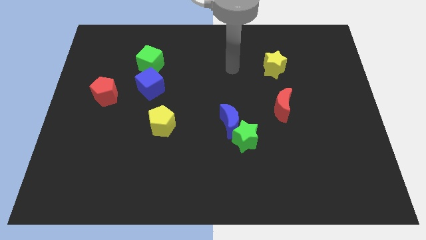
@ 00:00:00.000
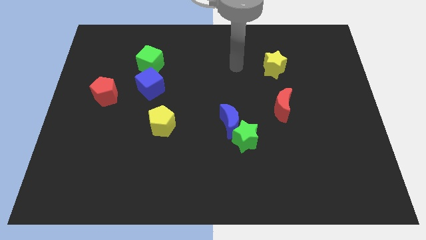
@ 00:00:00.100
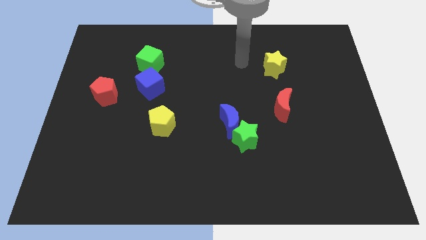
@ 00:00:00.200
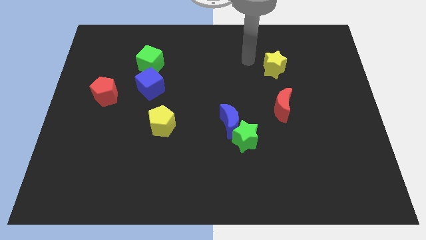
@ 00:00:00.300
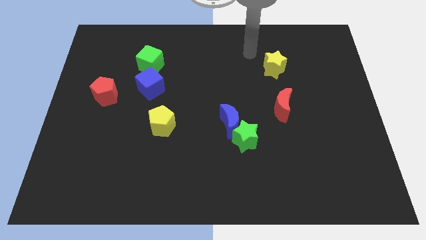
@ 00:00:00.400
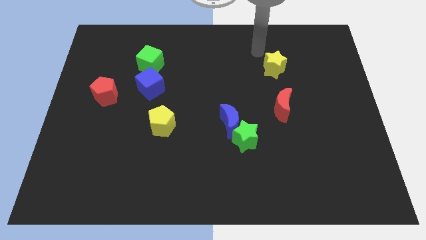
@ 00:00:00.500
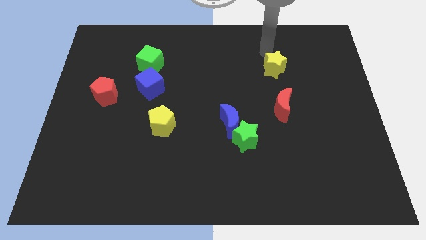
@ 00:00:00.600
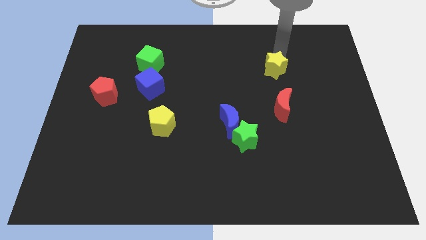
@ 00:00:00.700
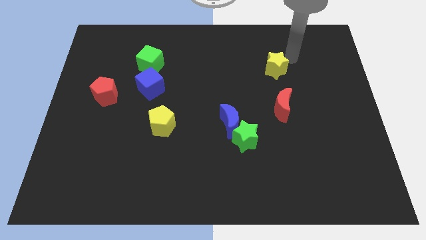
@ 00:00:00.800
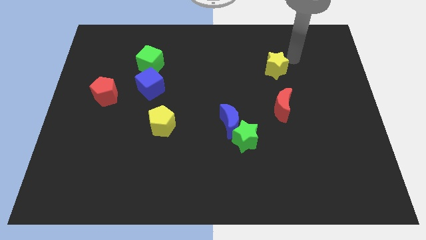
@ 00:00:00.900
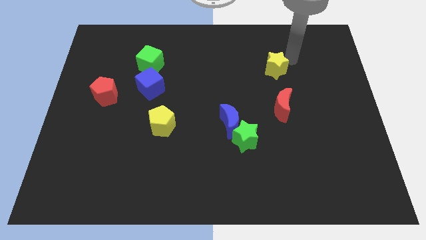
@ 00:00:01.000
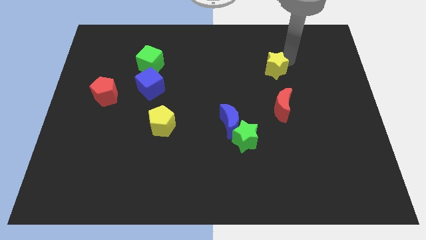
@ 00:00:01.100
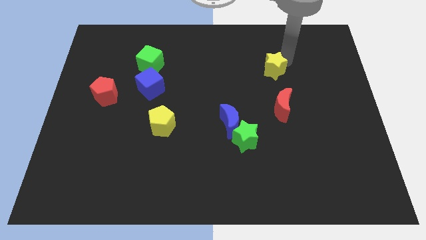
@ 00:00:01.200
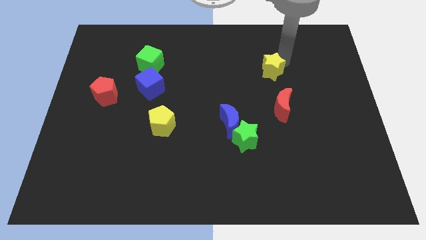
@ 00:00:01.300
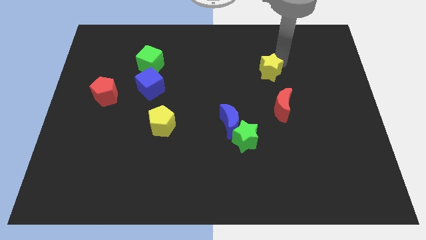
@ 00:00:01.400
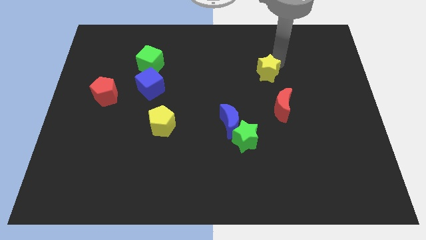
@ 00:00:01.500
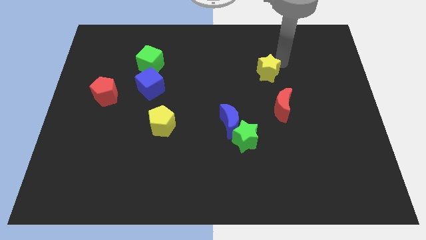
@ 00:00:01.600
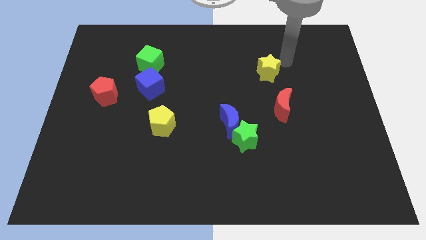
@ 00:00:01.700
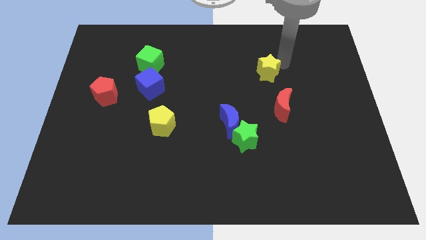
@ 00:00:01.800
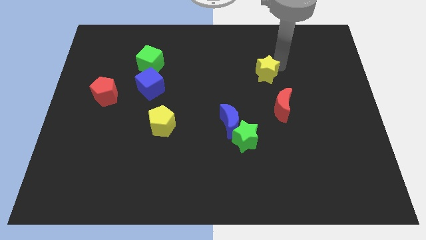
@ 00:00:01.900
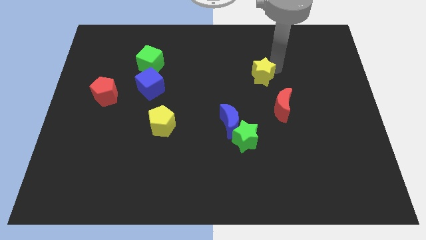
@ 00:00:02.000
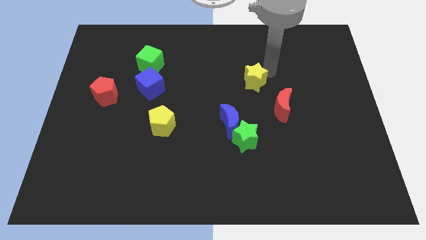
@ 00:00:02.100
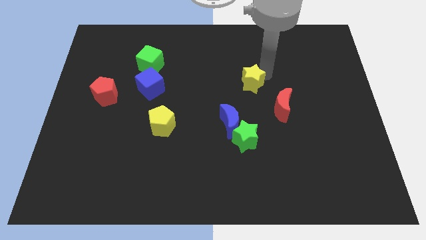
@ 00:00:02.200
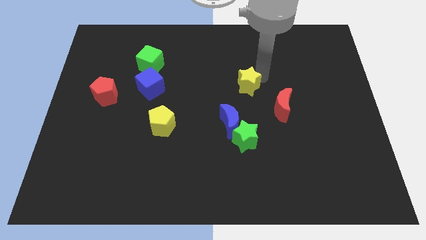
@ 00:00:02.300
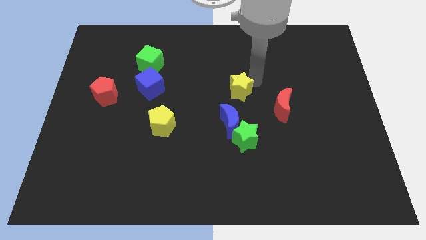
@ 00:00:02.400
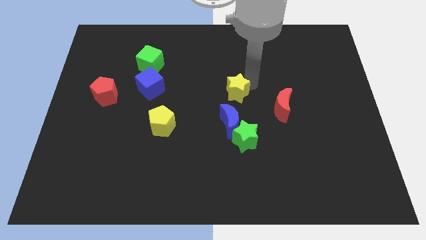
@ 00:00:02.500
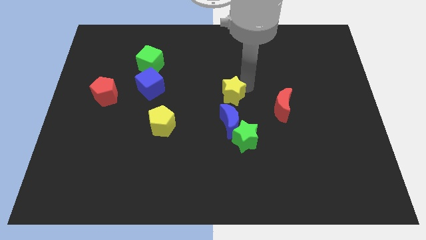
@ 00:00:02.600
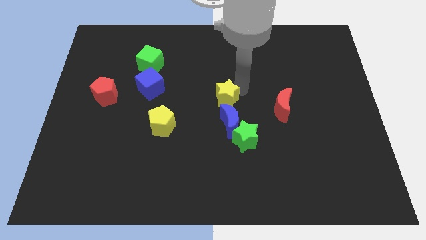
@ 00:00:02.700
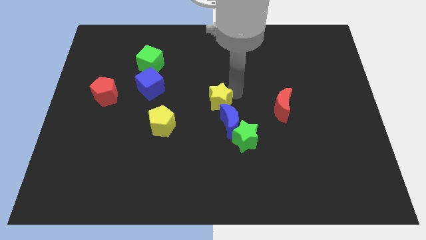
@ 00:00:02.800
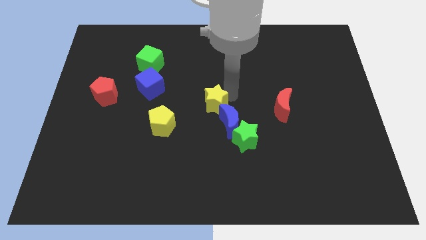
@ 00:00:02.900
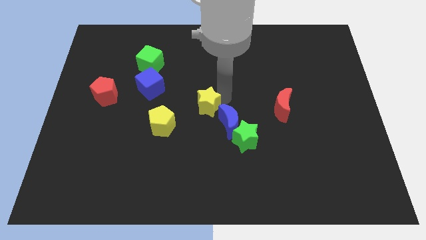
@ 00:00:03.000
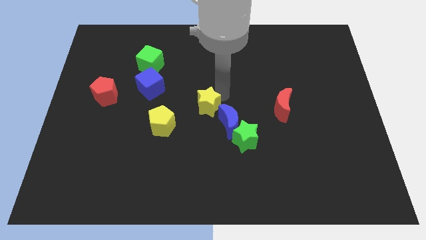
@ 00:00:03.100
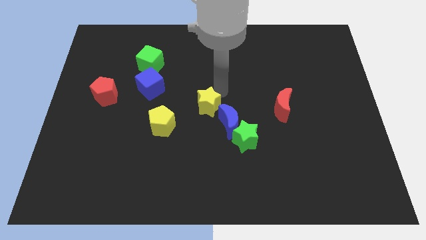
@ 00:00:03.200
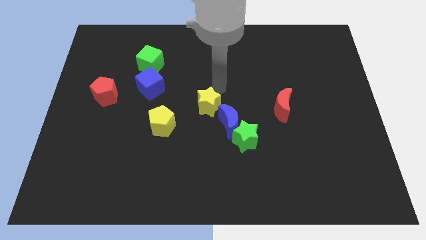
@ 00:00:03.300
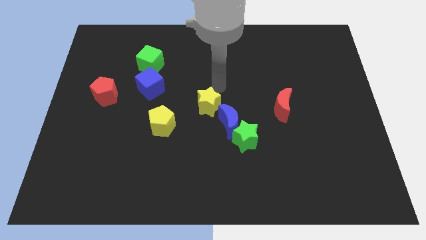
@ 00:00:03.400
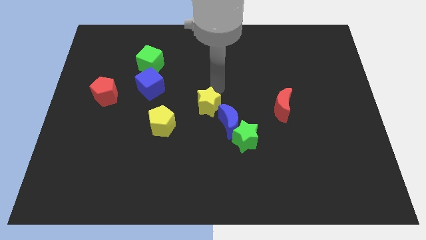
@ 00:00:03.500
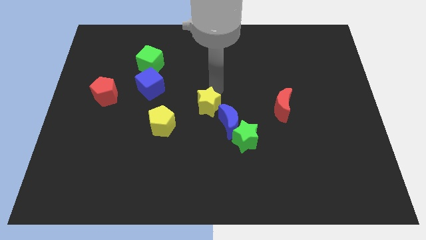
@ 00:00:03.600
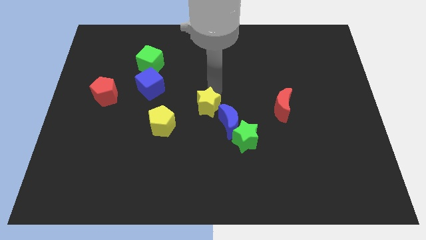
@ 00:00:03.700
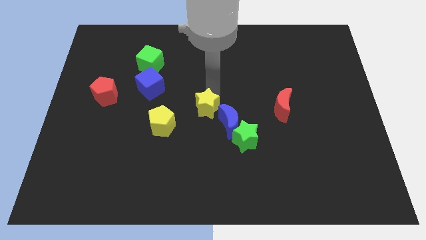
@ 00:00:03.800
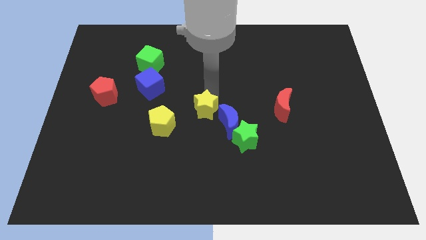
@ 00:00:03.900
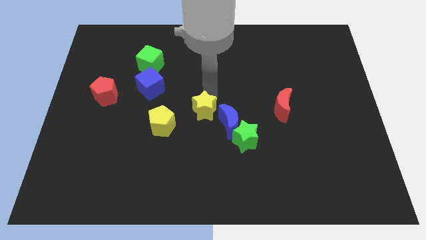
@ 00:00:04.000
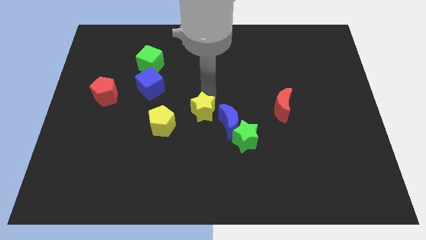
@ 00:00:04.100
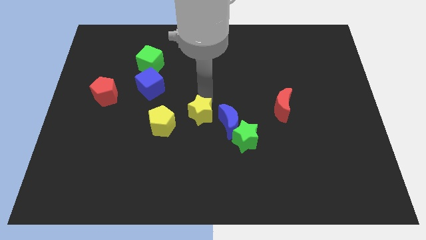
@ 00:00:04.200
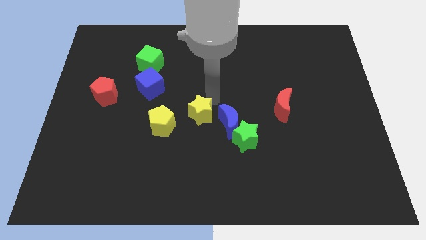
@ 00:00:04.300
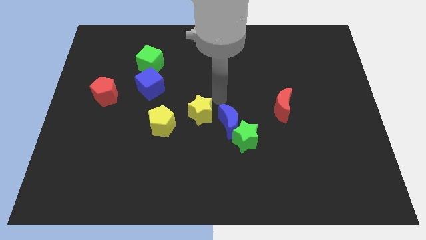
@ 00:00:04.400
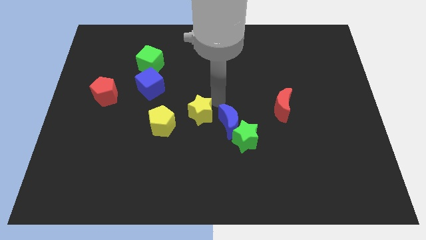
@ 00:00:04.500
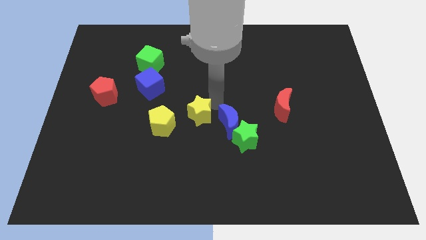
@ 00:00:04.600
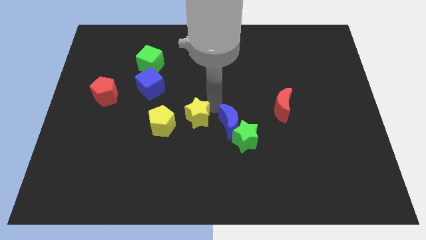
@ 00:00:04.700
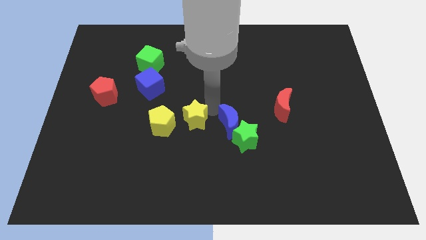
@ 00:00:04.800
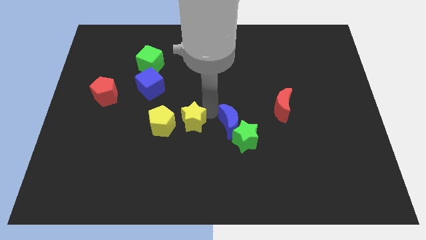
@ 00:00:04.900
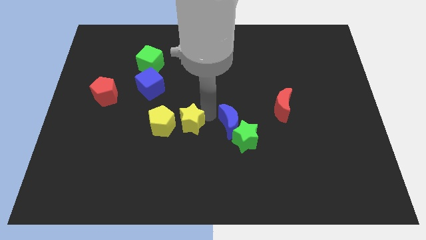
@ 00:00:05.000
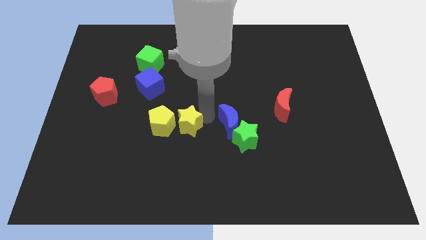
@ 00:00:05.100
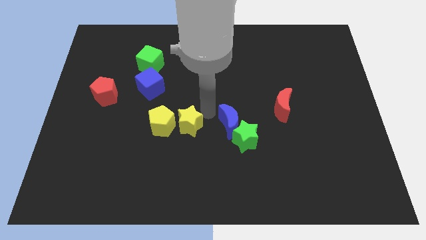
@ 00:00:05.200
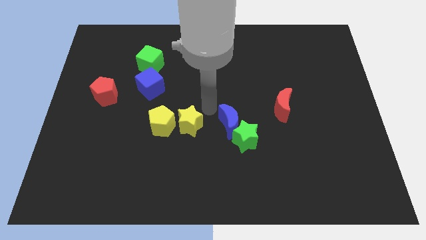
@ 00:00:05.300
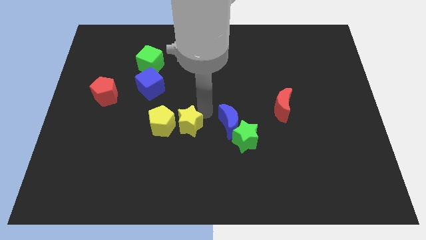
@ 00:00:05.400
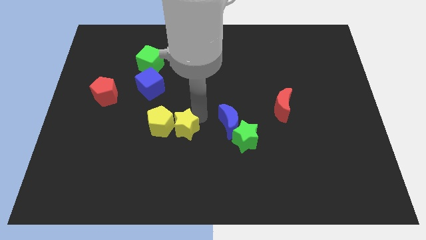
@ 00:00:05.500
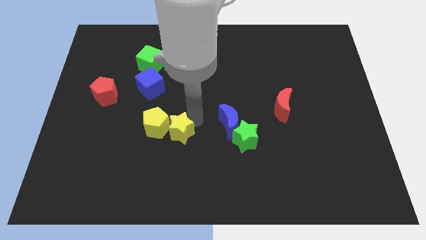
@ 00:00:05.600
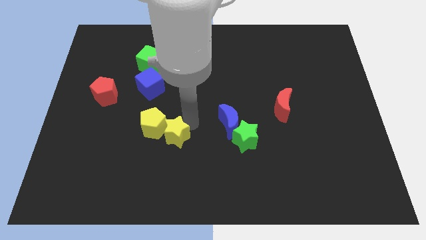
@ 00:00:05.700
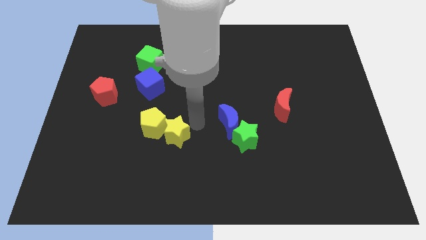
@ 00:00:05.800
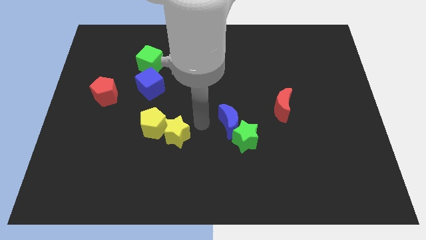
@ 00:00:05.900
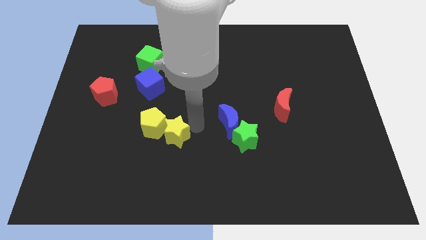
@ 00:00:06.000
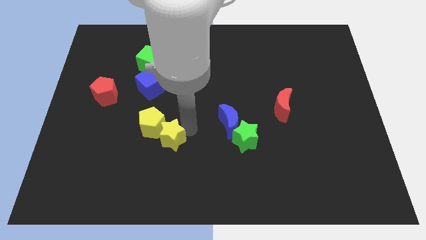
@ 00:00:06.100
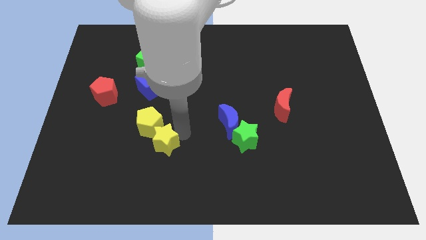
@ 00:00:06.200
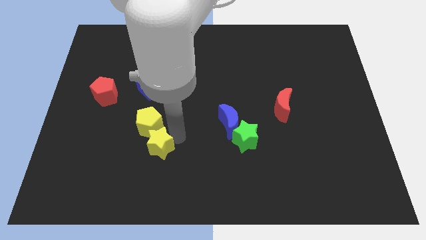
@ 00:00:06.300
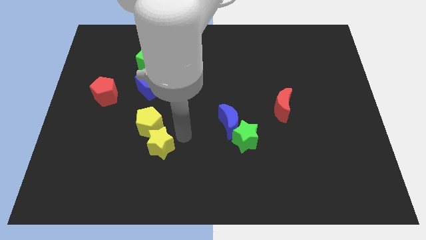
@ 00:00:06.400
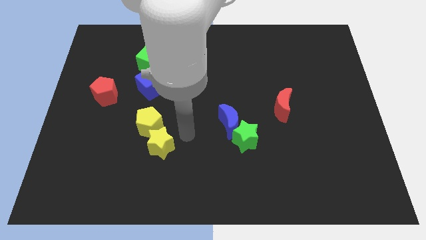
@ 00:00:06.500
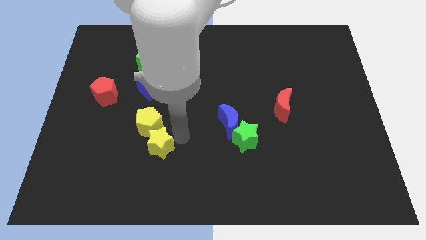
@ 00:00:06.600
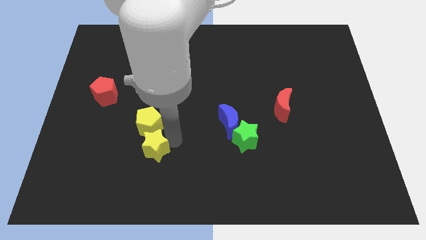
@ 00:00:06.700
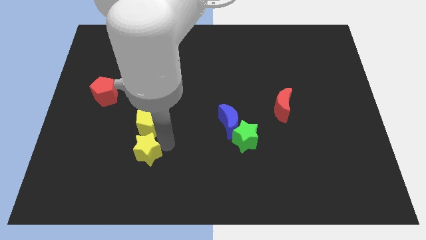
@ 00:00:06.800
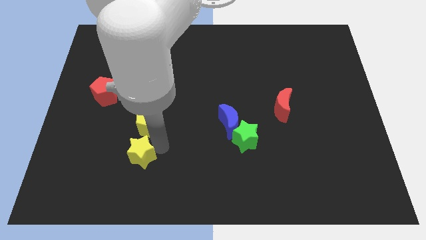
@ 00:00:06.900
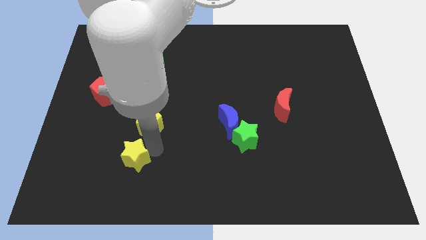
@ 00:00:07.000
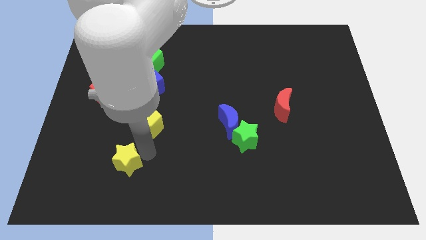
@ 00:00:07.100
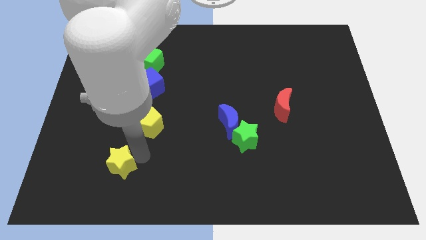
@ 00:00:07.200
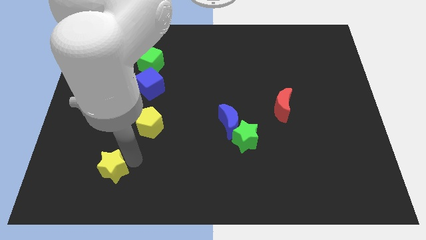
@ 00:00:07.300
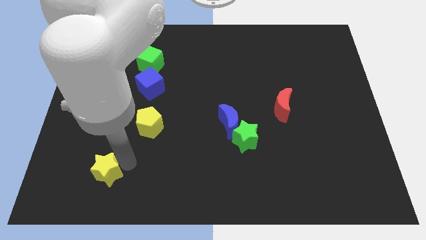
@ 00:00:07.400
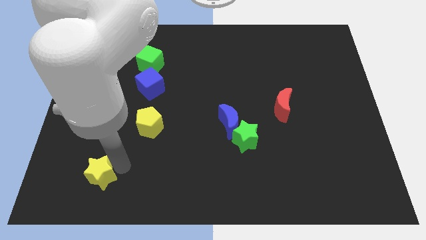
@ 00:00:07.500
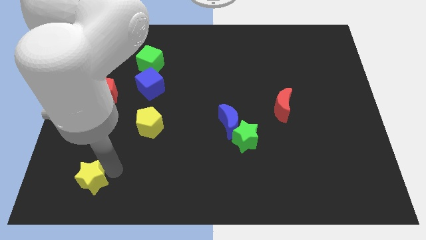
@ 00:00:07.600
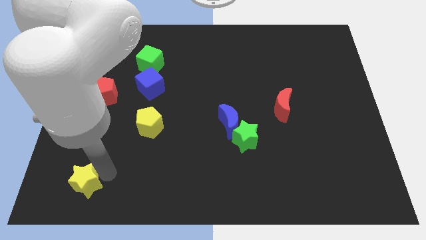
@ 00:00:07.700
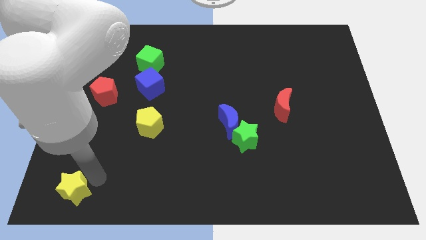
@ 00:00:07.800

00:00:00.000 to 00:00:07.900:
move the yellow star to the bottom left of the board
